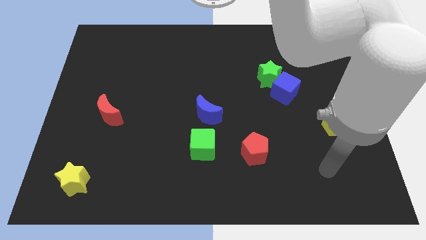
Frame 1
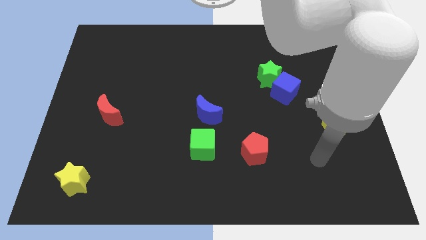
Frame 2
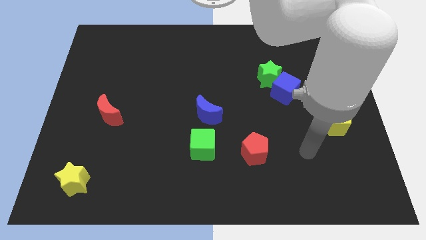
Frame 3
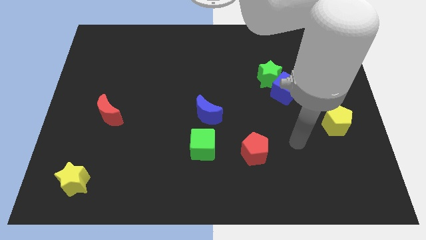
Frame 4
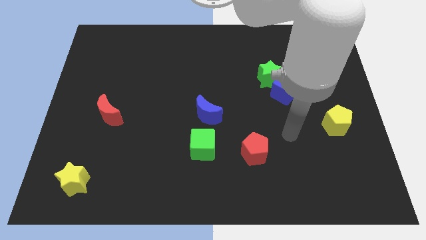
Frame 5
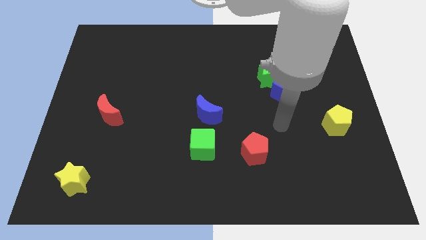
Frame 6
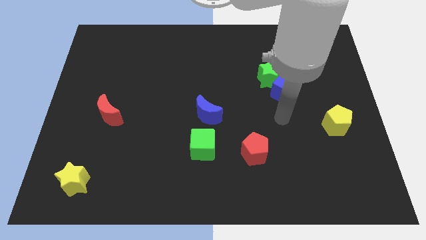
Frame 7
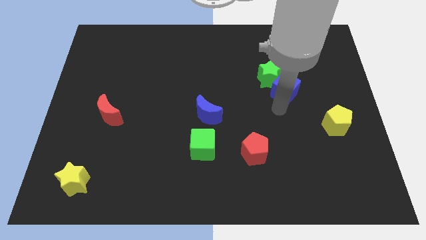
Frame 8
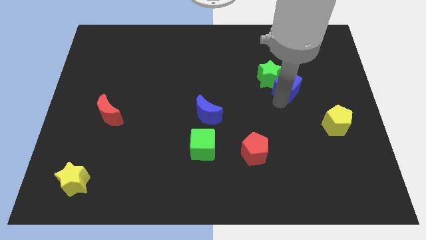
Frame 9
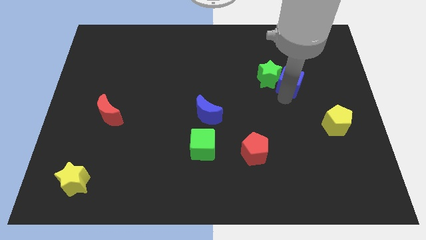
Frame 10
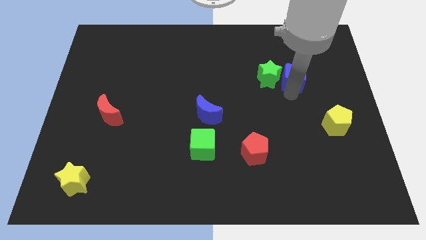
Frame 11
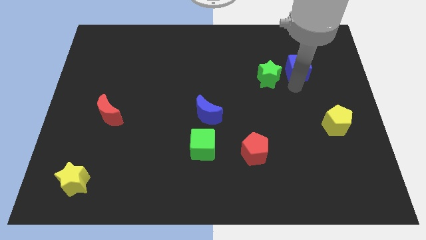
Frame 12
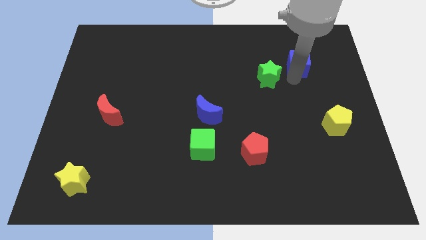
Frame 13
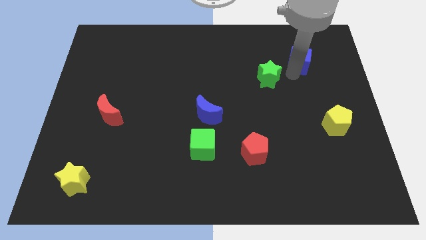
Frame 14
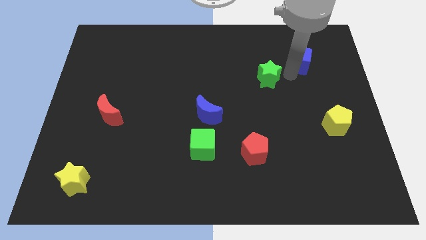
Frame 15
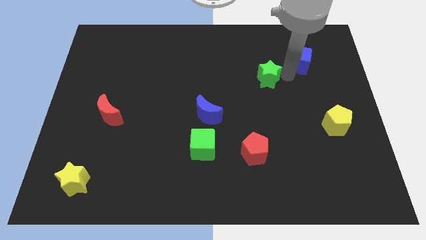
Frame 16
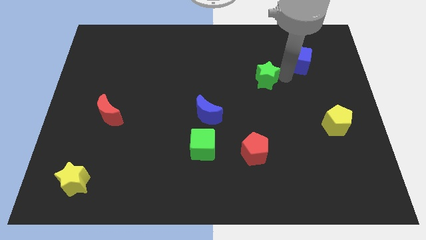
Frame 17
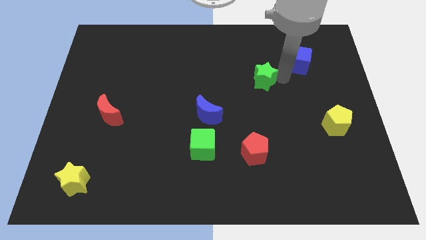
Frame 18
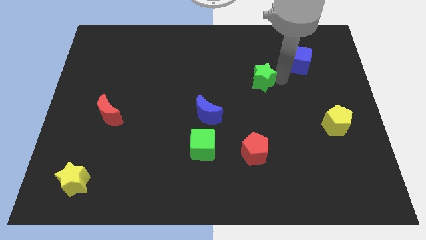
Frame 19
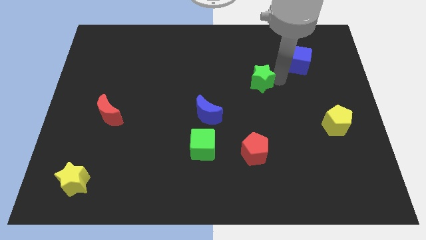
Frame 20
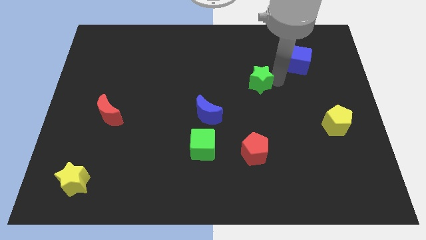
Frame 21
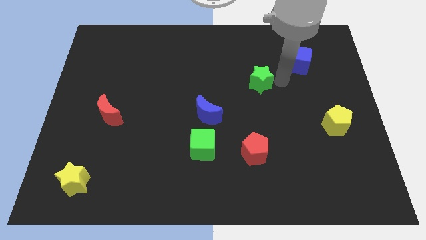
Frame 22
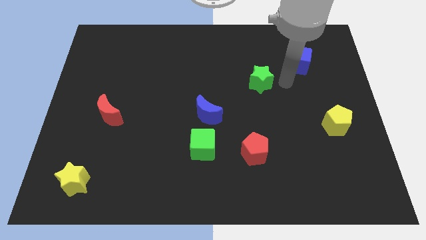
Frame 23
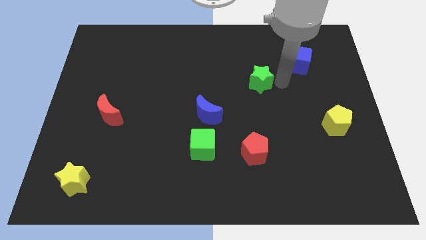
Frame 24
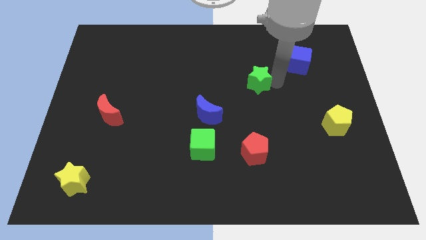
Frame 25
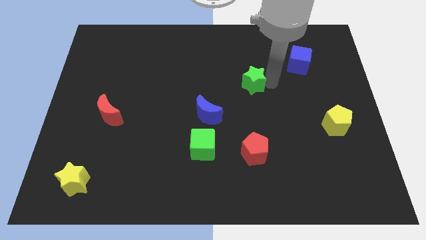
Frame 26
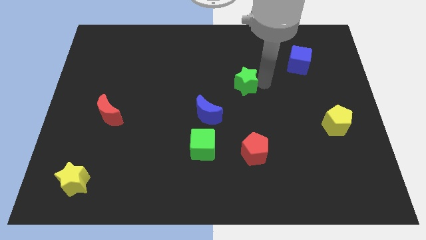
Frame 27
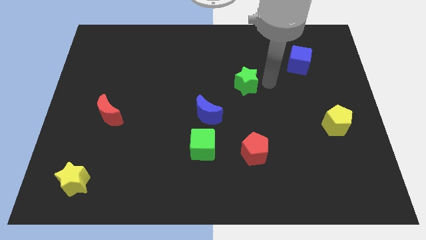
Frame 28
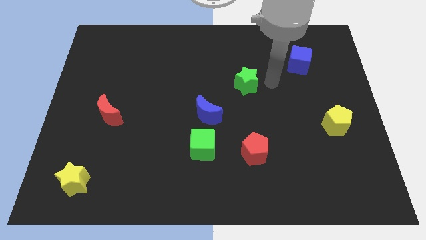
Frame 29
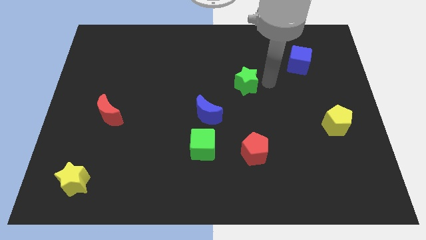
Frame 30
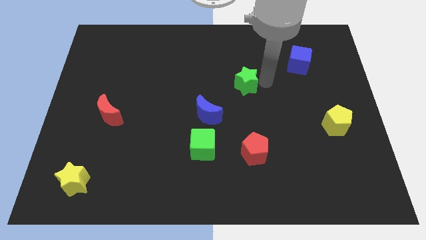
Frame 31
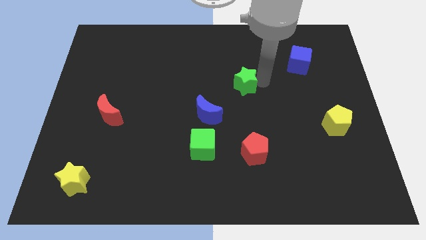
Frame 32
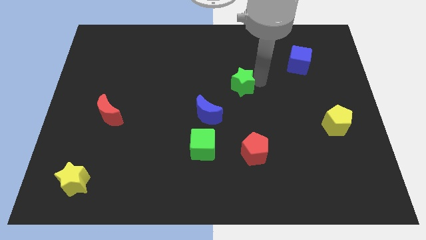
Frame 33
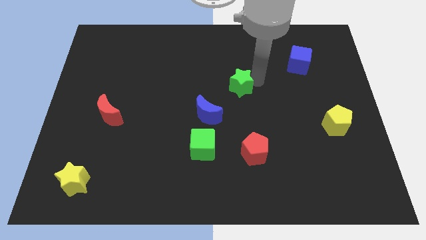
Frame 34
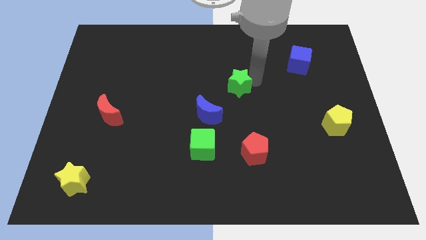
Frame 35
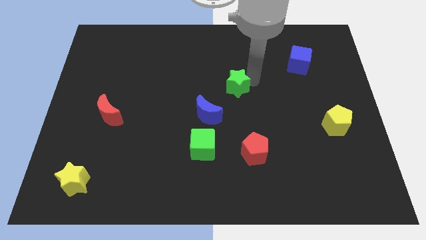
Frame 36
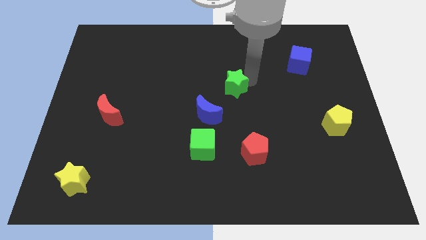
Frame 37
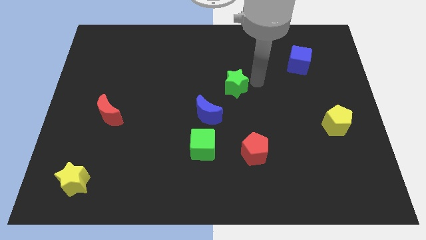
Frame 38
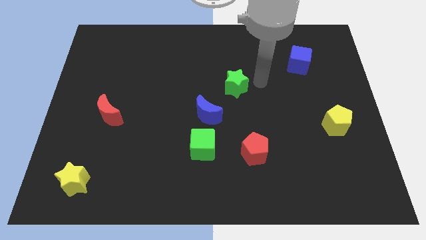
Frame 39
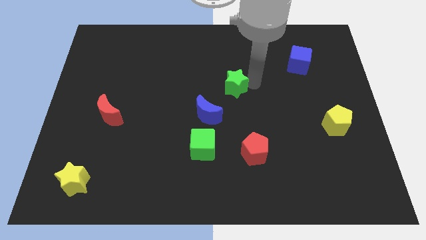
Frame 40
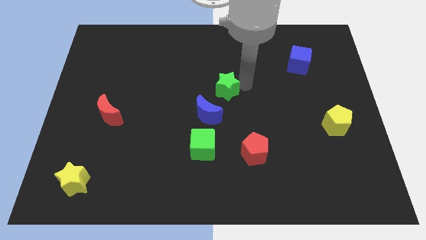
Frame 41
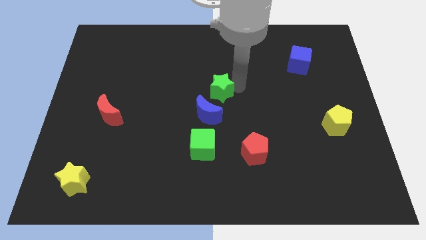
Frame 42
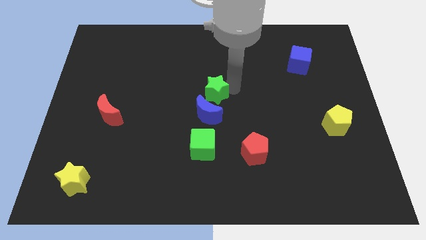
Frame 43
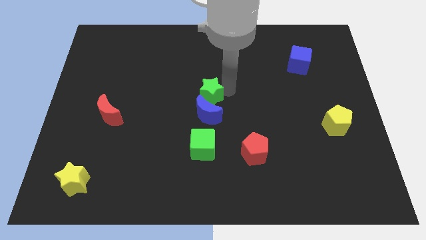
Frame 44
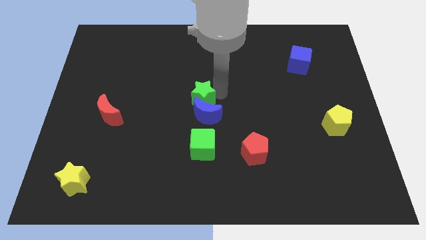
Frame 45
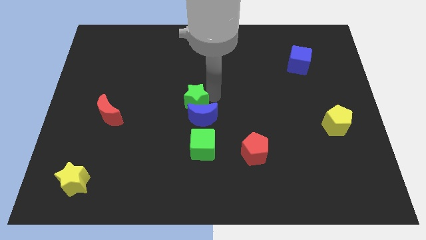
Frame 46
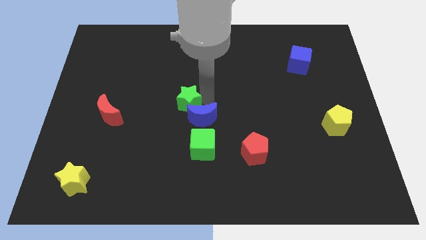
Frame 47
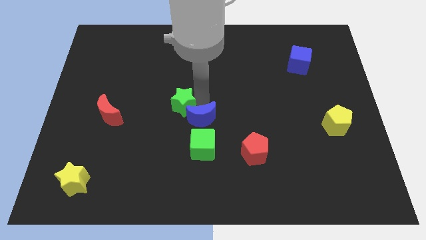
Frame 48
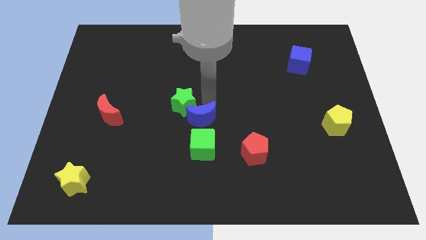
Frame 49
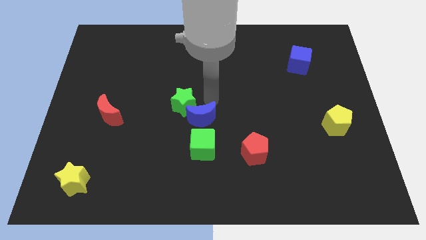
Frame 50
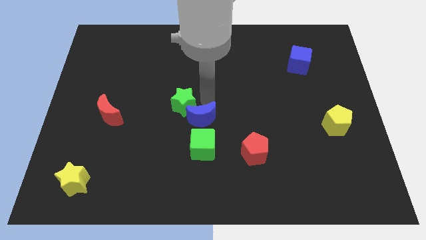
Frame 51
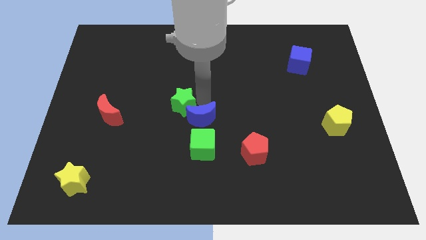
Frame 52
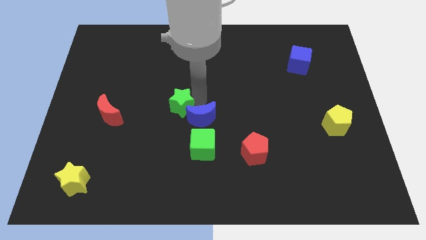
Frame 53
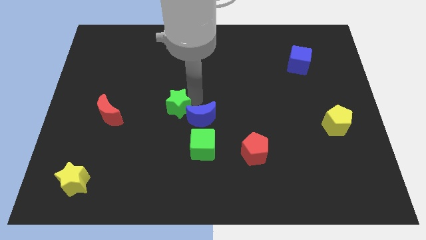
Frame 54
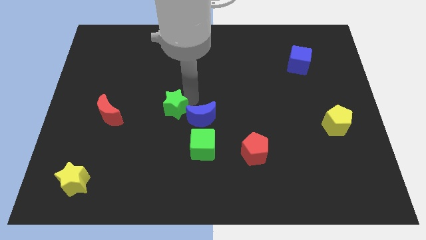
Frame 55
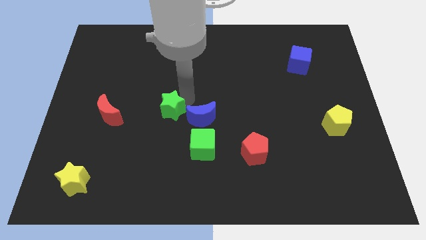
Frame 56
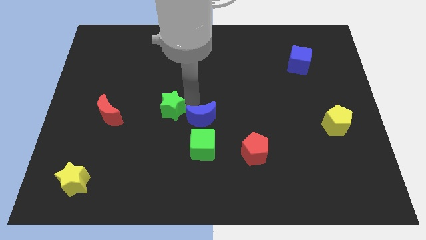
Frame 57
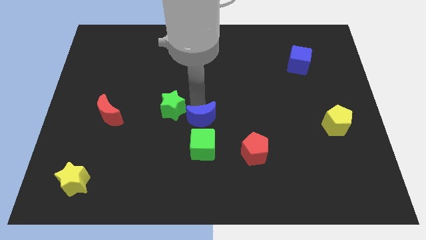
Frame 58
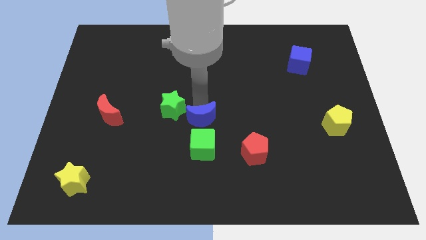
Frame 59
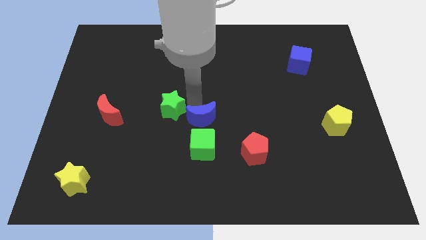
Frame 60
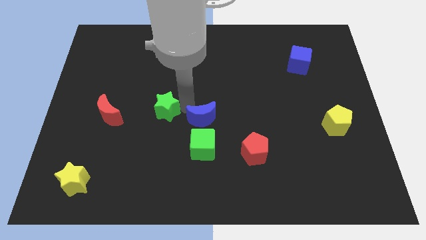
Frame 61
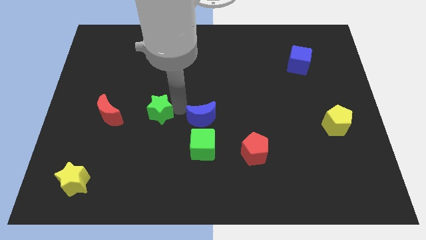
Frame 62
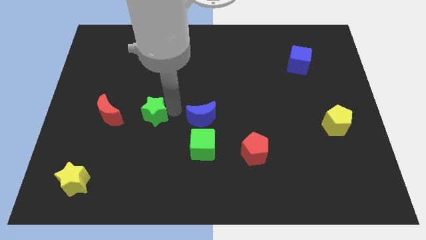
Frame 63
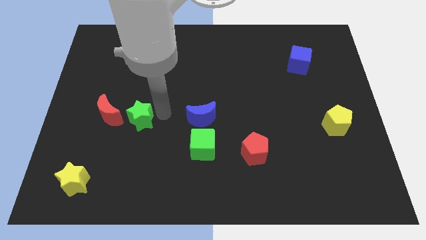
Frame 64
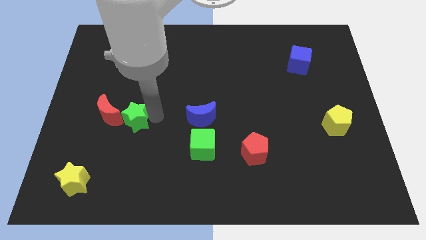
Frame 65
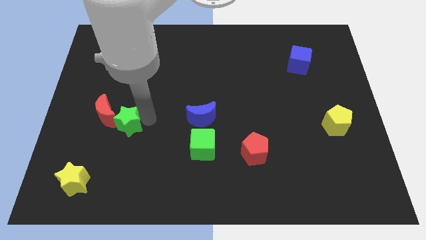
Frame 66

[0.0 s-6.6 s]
put the green star close to the red moon

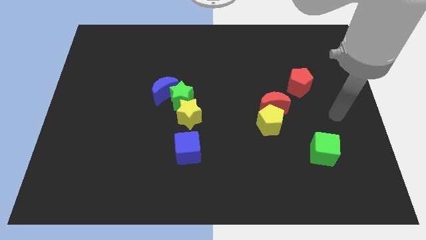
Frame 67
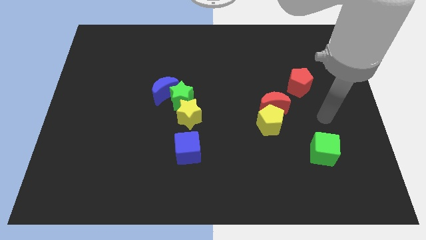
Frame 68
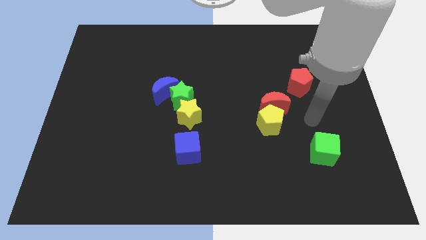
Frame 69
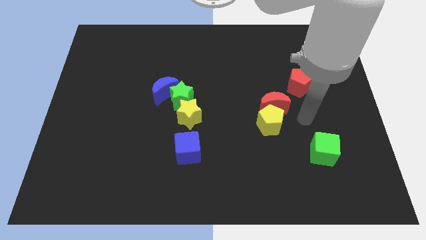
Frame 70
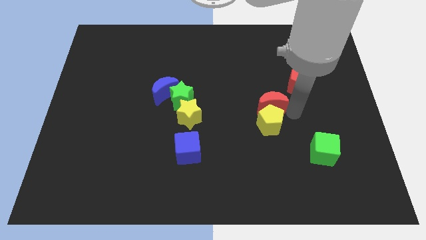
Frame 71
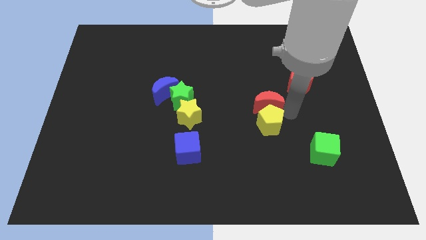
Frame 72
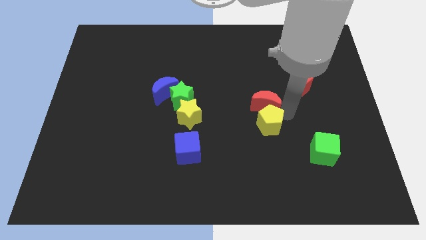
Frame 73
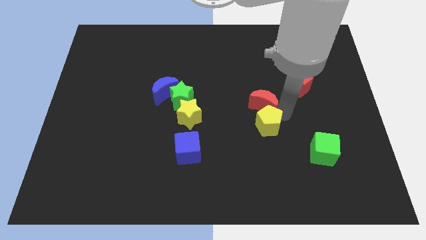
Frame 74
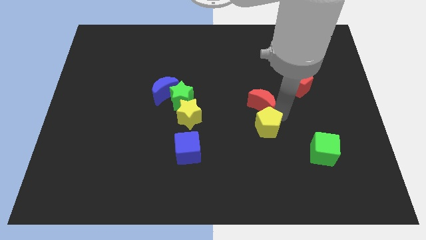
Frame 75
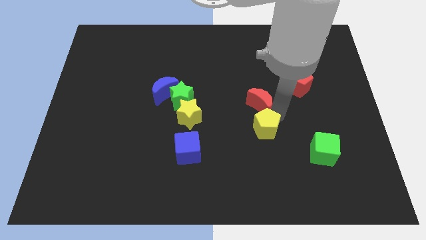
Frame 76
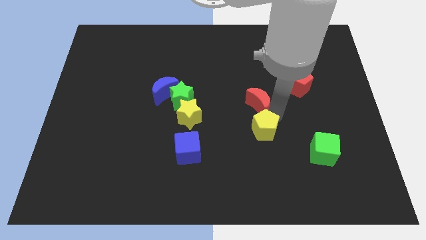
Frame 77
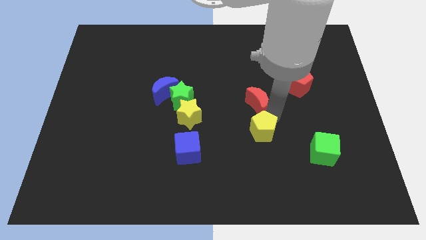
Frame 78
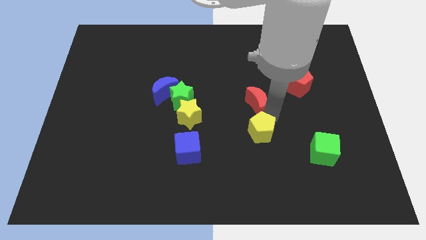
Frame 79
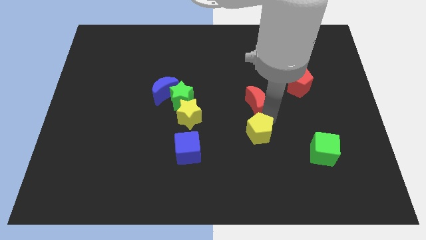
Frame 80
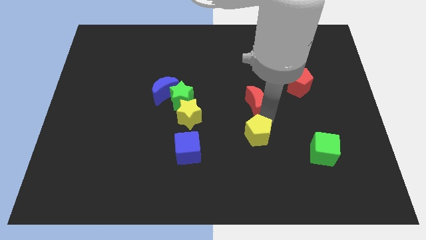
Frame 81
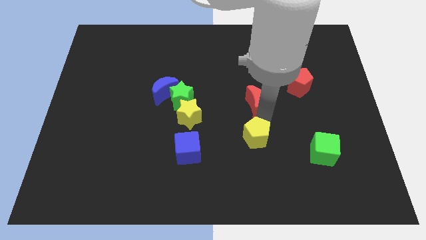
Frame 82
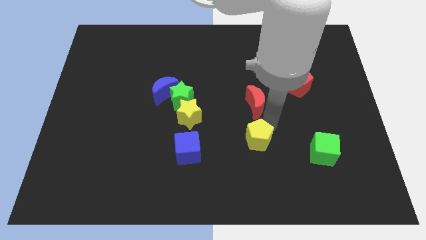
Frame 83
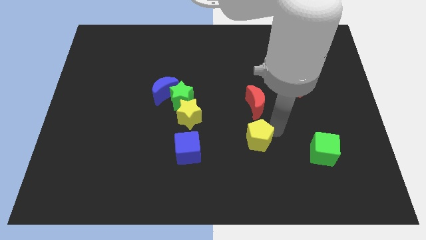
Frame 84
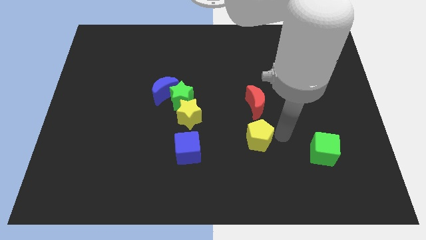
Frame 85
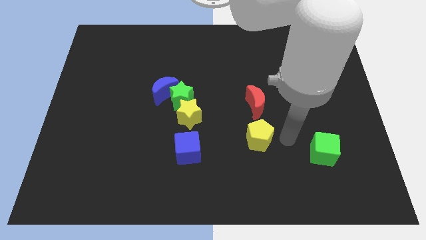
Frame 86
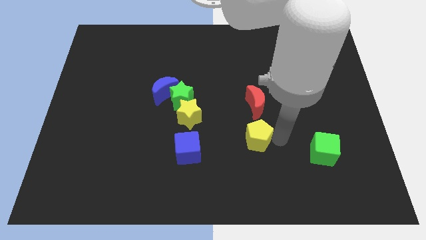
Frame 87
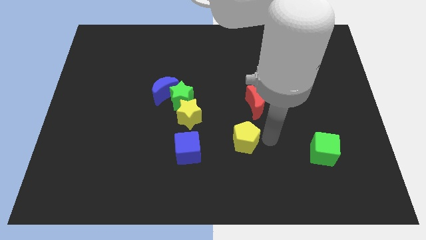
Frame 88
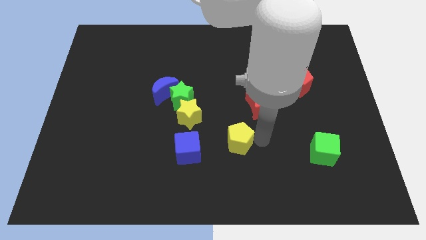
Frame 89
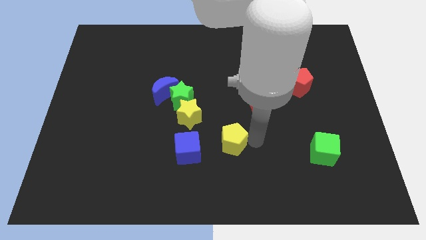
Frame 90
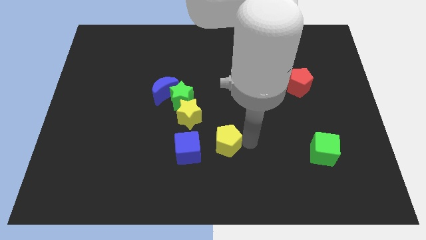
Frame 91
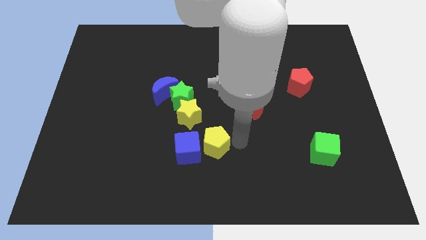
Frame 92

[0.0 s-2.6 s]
put the yellow pentagon towards the blue cube
